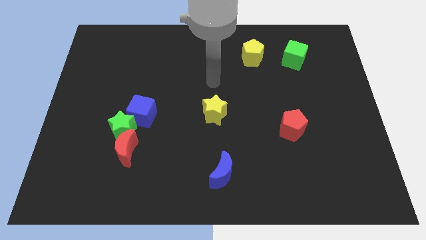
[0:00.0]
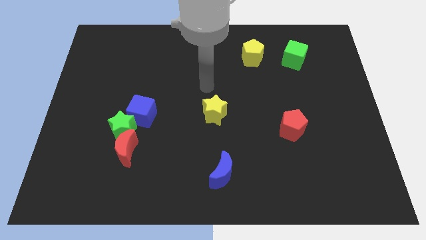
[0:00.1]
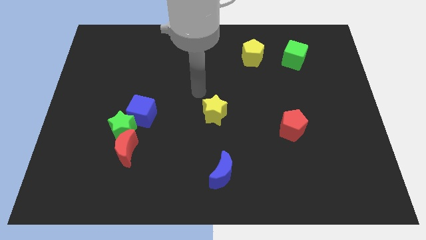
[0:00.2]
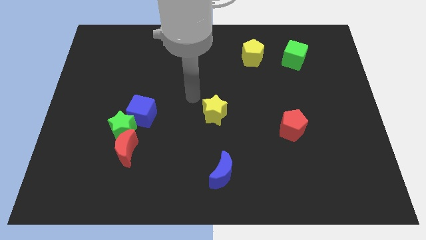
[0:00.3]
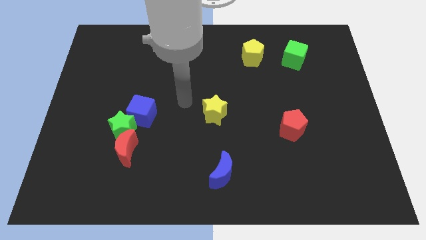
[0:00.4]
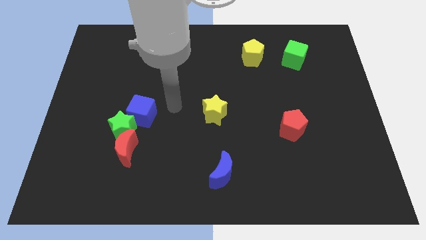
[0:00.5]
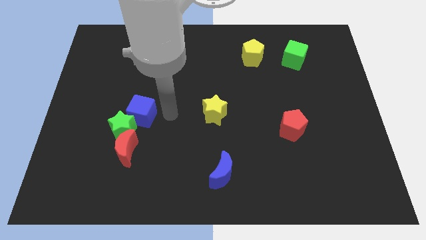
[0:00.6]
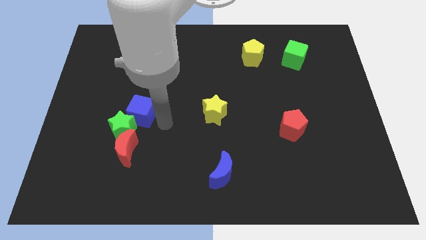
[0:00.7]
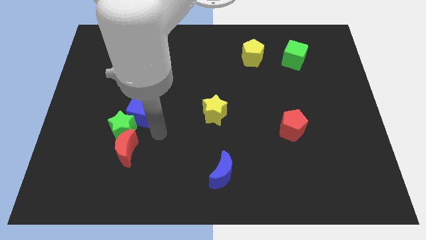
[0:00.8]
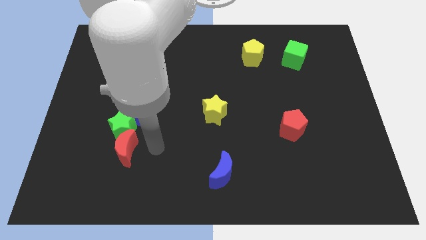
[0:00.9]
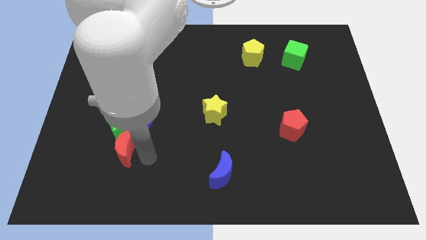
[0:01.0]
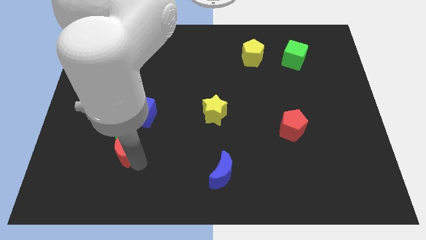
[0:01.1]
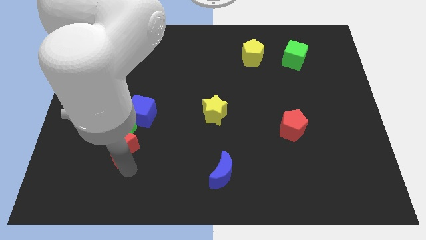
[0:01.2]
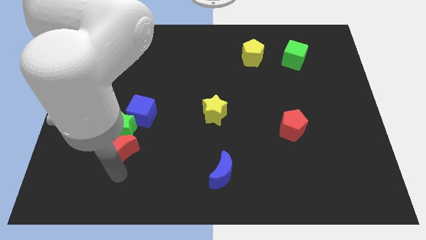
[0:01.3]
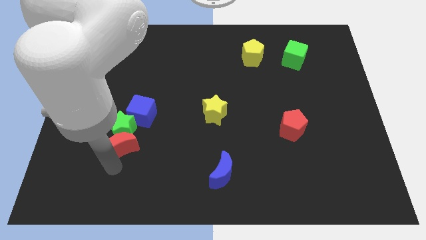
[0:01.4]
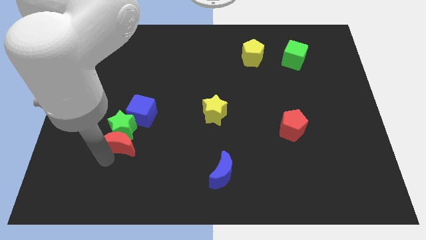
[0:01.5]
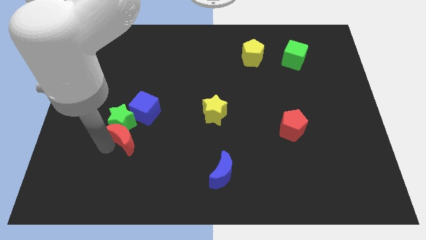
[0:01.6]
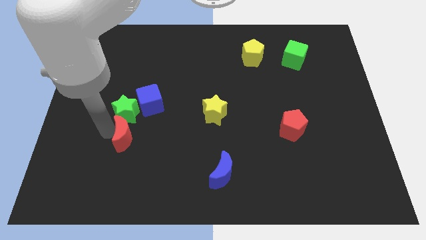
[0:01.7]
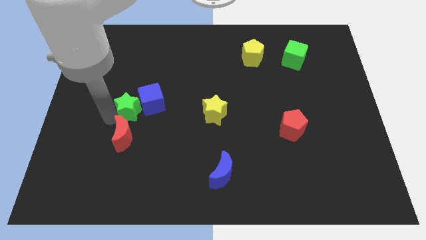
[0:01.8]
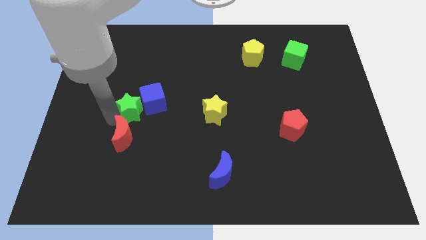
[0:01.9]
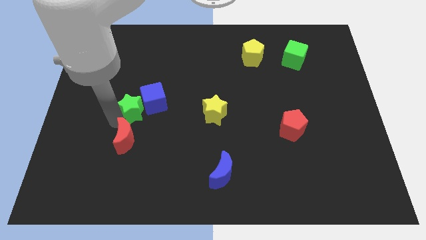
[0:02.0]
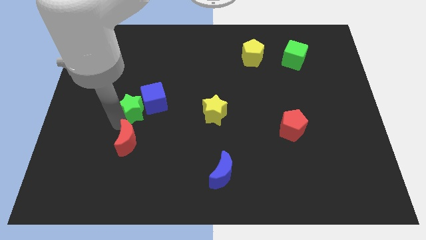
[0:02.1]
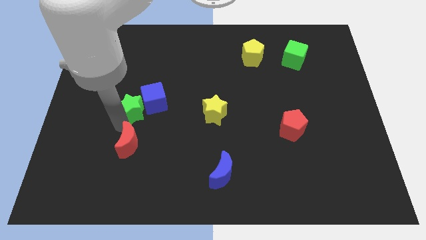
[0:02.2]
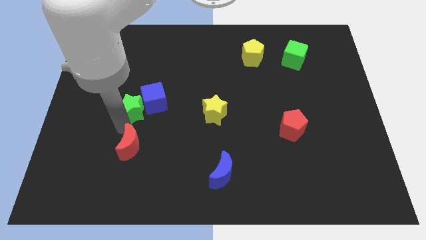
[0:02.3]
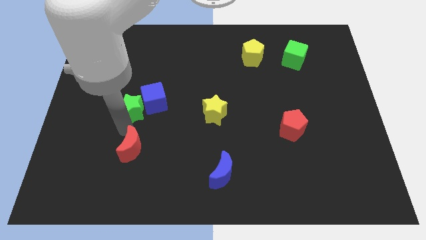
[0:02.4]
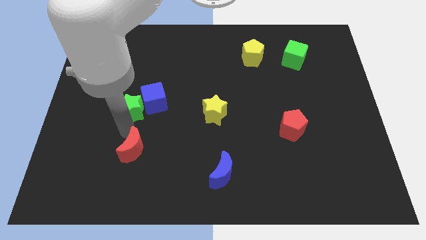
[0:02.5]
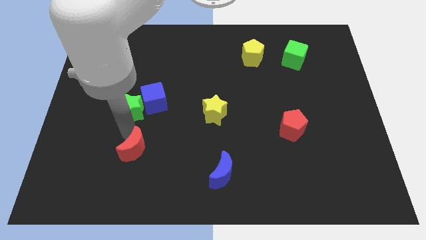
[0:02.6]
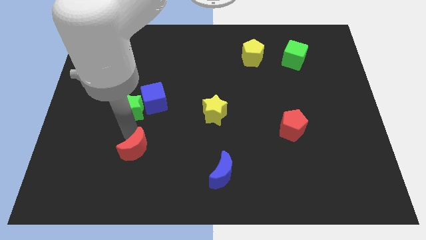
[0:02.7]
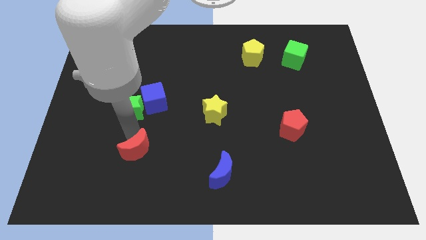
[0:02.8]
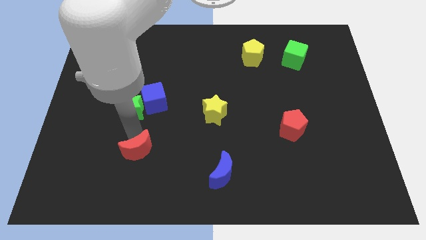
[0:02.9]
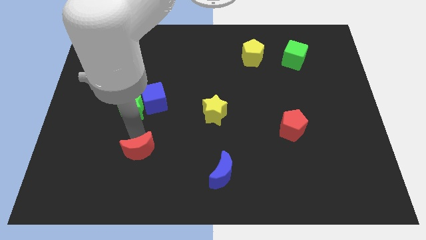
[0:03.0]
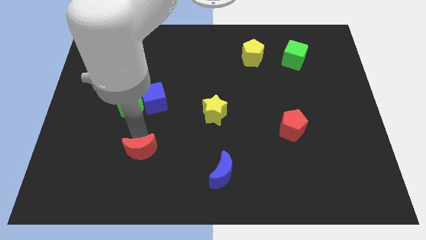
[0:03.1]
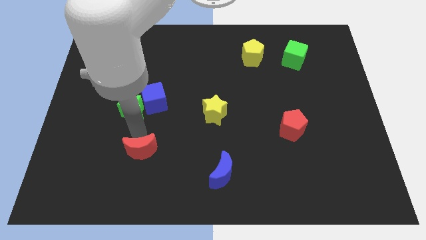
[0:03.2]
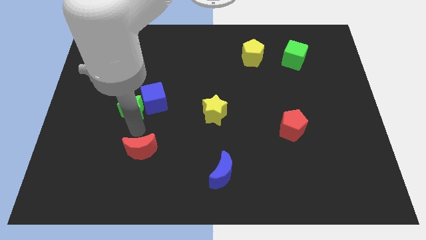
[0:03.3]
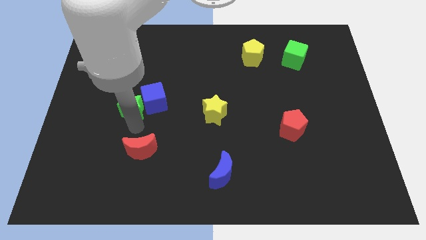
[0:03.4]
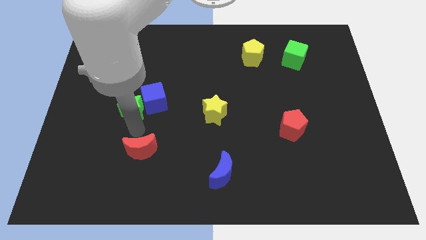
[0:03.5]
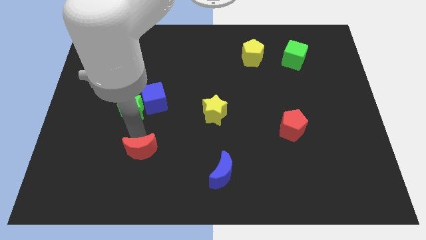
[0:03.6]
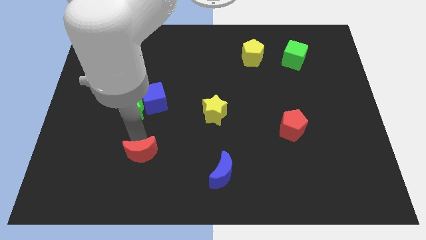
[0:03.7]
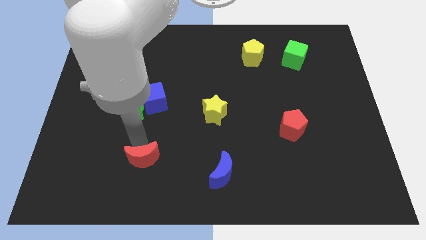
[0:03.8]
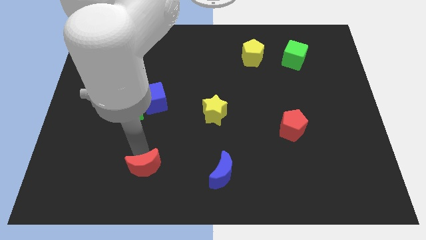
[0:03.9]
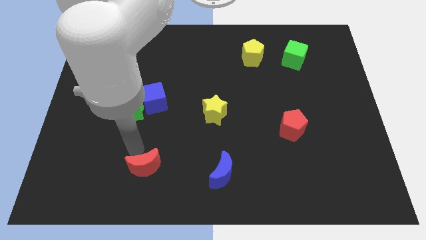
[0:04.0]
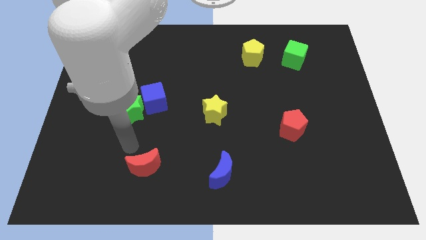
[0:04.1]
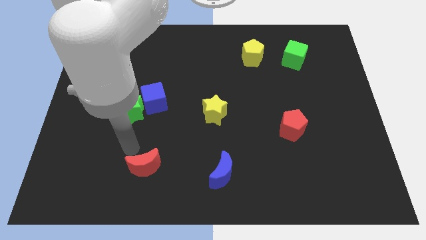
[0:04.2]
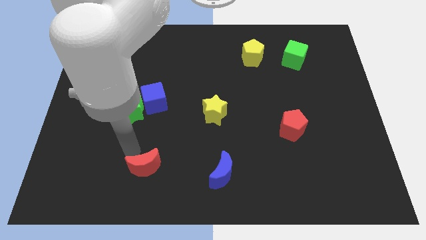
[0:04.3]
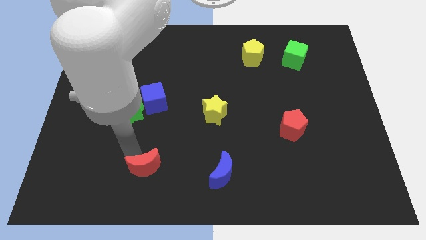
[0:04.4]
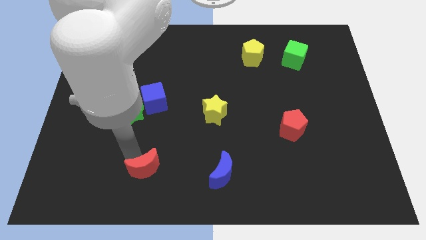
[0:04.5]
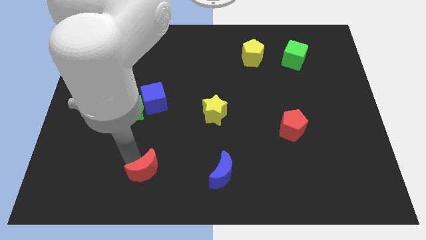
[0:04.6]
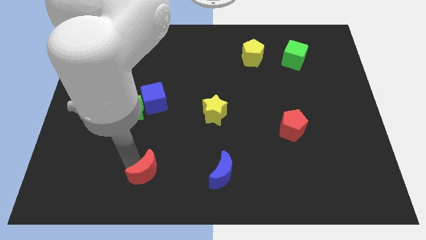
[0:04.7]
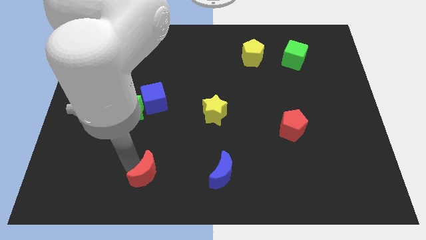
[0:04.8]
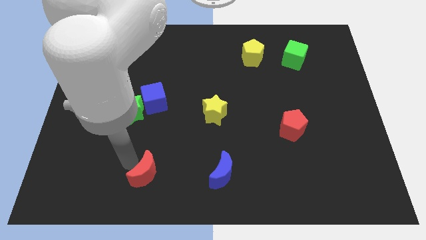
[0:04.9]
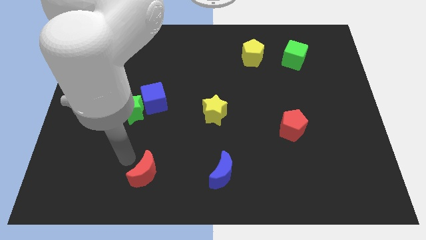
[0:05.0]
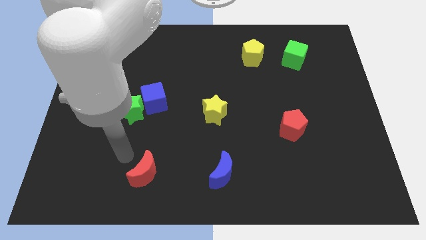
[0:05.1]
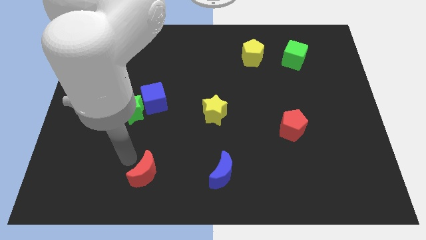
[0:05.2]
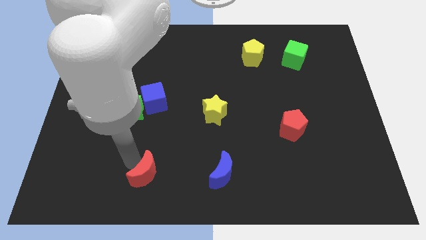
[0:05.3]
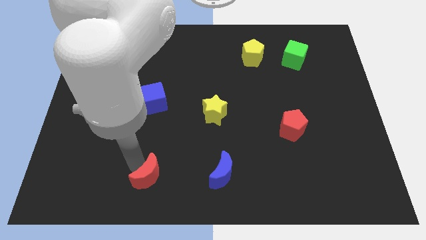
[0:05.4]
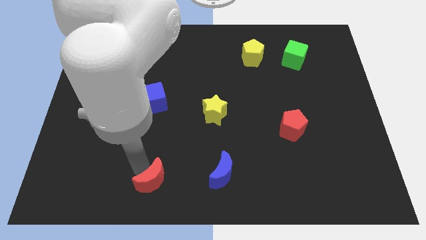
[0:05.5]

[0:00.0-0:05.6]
slide the red moon to the bottom

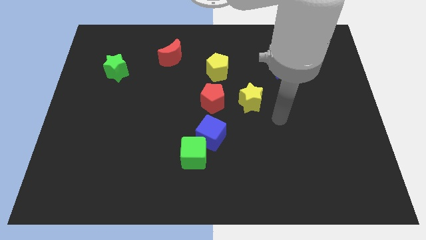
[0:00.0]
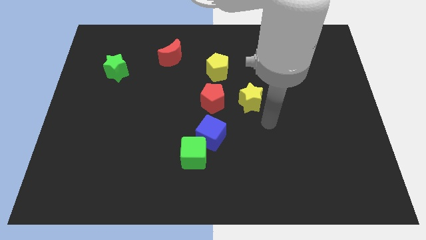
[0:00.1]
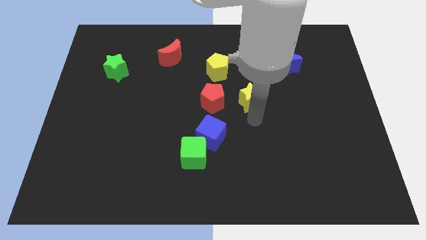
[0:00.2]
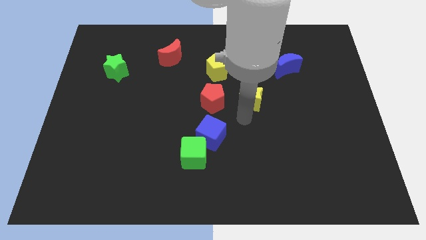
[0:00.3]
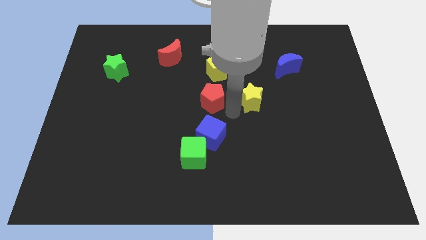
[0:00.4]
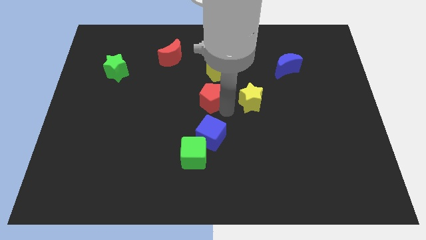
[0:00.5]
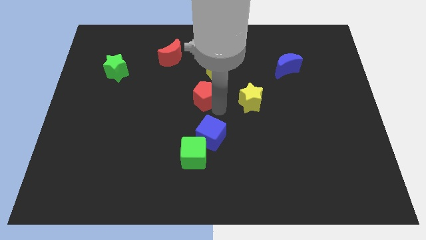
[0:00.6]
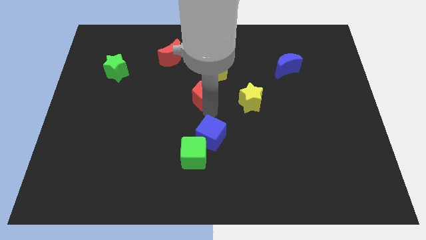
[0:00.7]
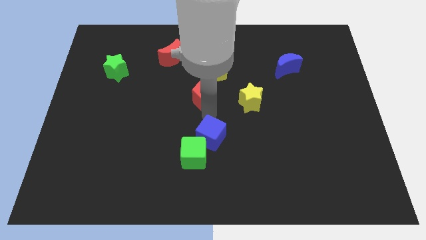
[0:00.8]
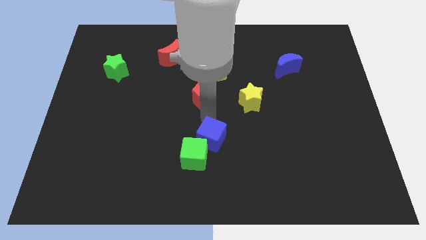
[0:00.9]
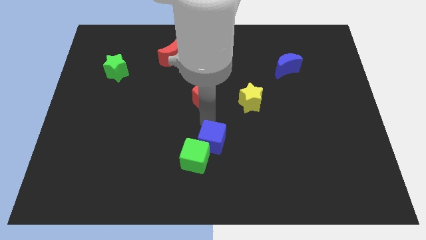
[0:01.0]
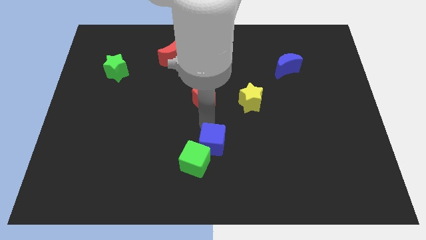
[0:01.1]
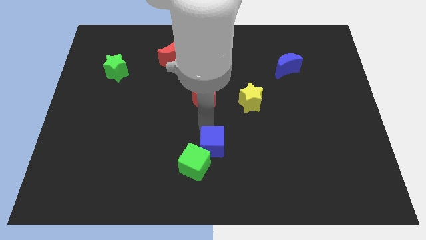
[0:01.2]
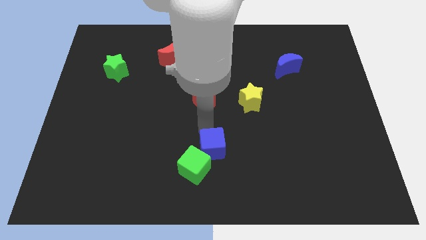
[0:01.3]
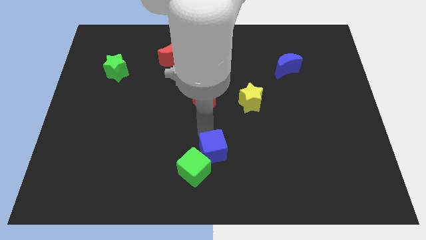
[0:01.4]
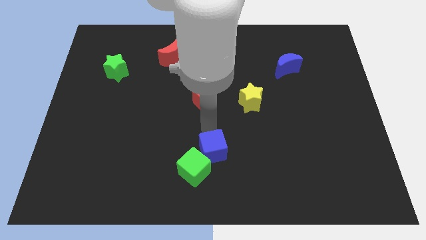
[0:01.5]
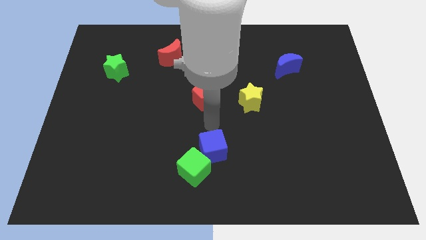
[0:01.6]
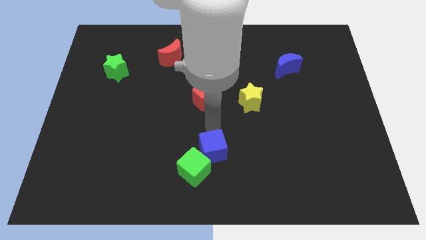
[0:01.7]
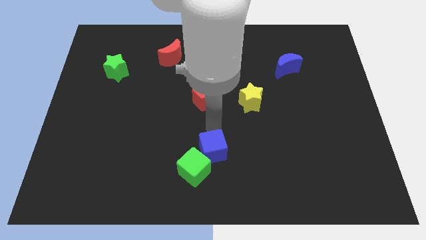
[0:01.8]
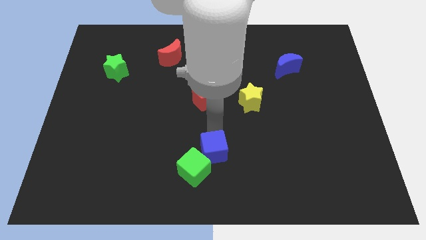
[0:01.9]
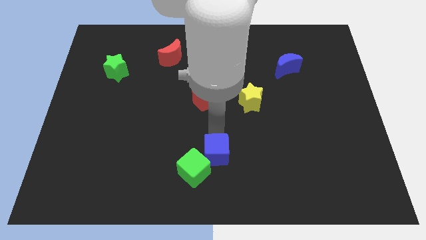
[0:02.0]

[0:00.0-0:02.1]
put the blue cube to the bottom
